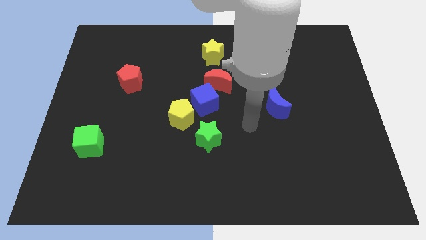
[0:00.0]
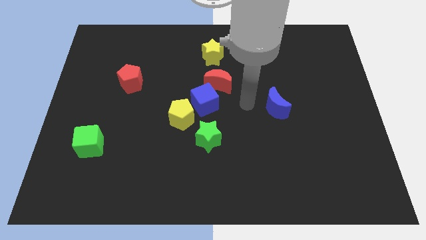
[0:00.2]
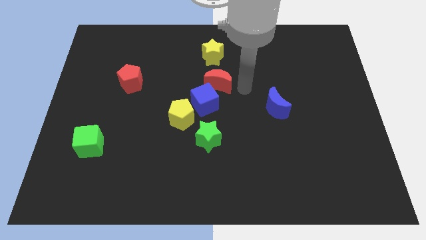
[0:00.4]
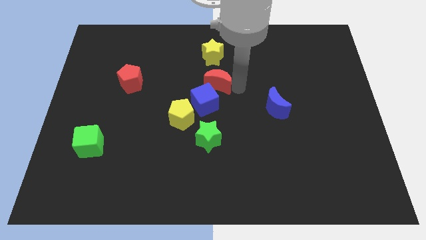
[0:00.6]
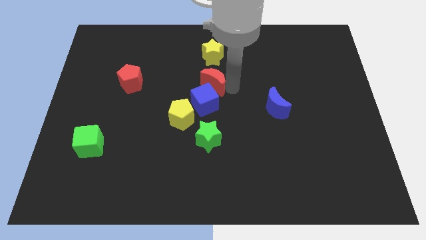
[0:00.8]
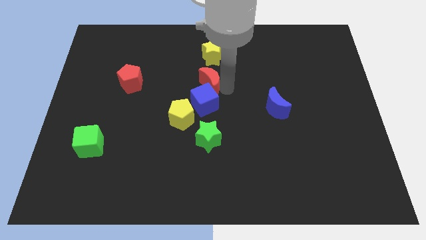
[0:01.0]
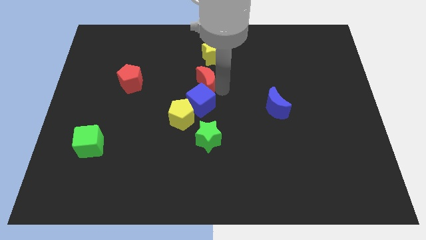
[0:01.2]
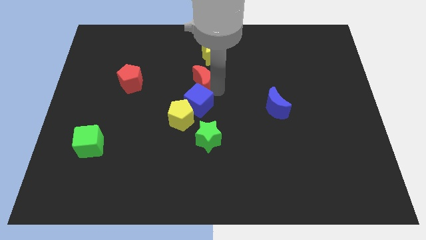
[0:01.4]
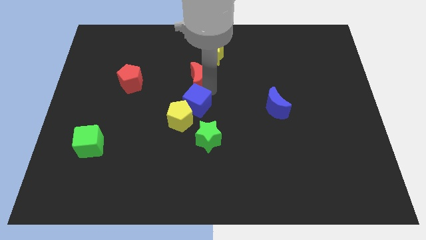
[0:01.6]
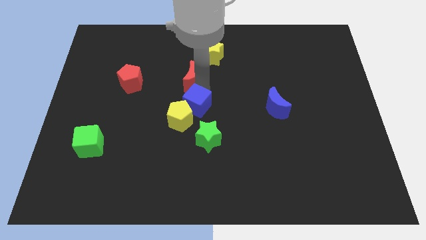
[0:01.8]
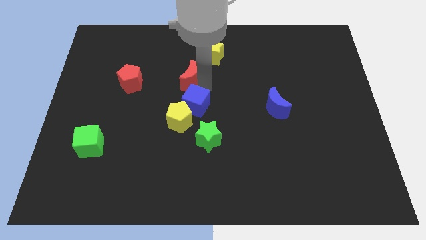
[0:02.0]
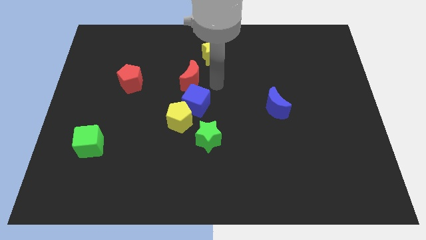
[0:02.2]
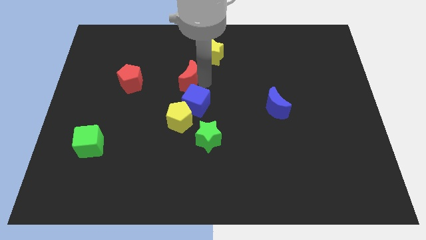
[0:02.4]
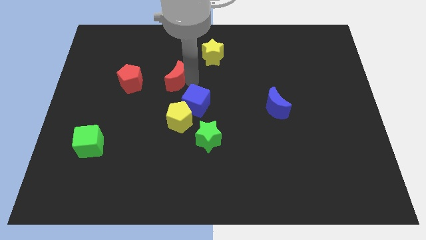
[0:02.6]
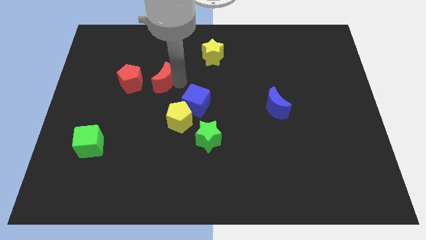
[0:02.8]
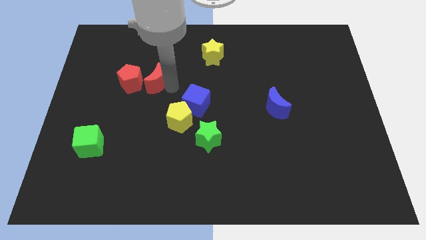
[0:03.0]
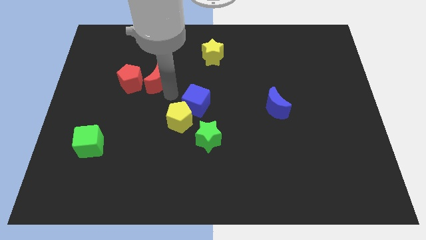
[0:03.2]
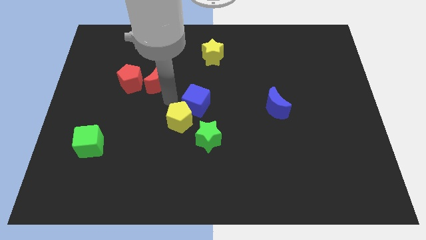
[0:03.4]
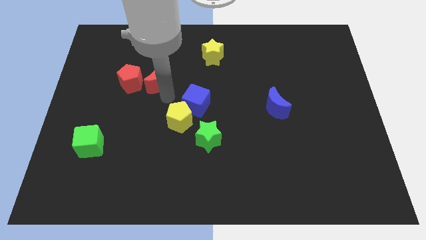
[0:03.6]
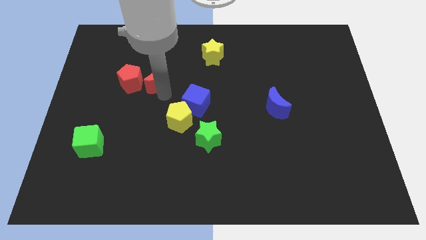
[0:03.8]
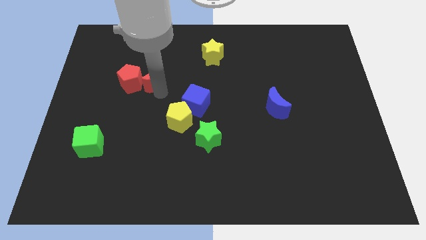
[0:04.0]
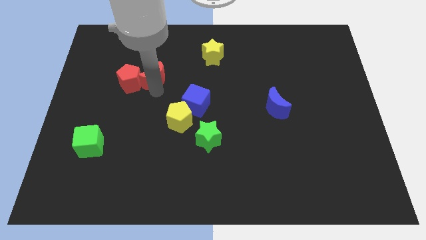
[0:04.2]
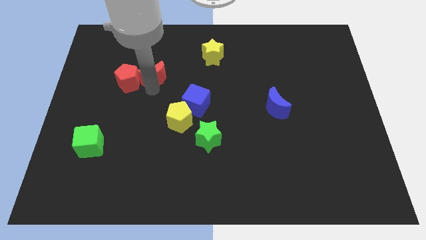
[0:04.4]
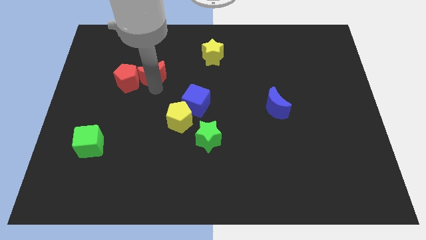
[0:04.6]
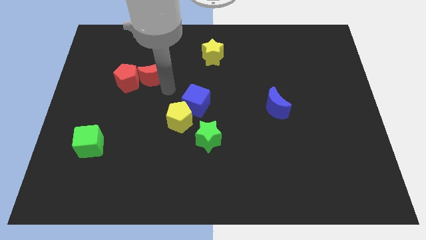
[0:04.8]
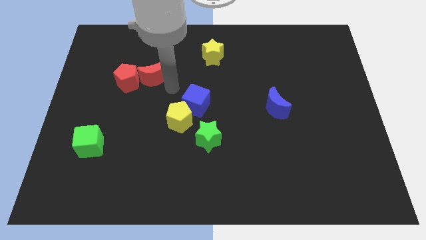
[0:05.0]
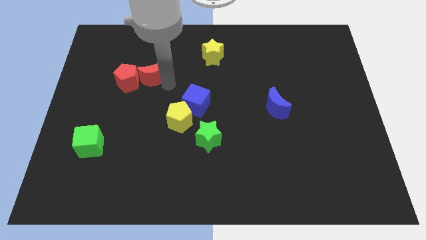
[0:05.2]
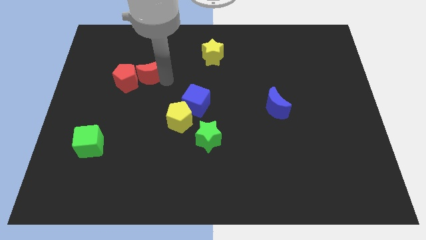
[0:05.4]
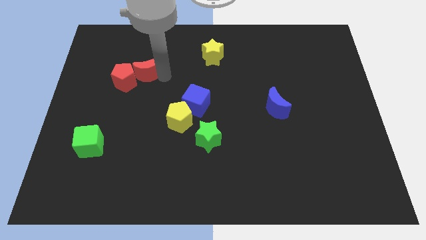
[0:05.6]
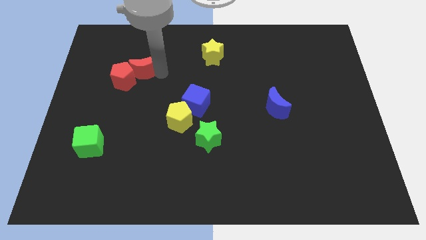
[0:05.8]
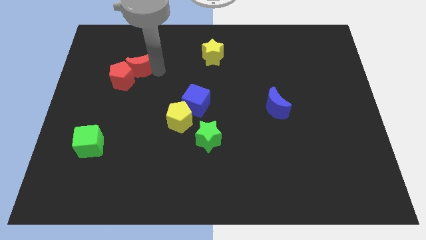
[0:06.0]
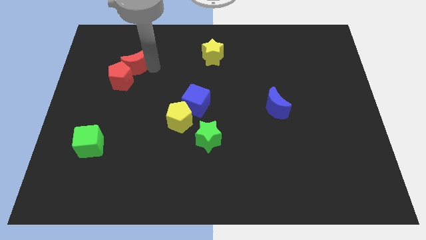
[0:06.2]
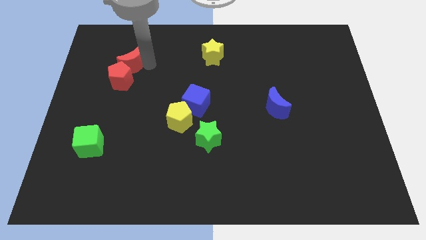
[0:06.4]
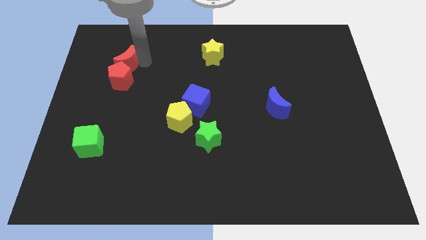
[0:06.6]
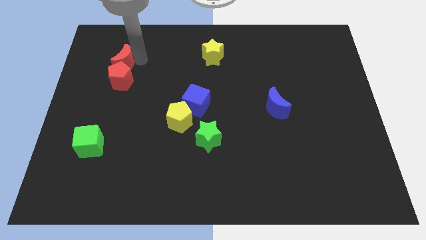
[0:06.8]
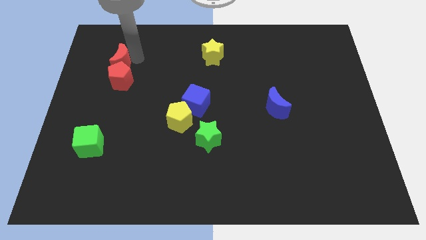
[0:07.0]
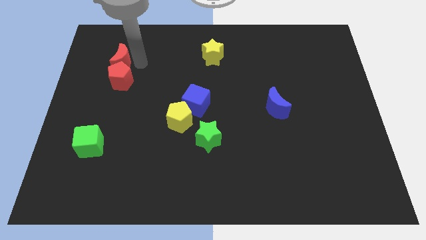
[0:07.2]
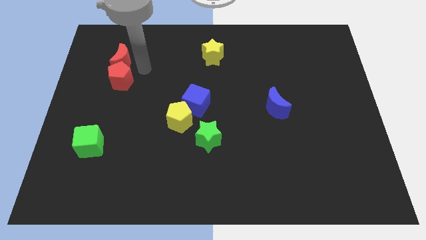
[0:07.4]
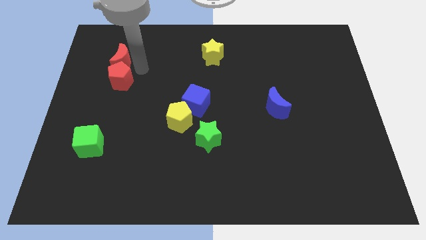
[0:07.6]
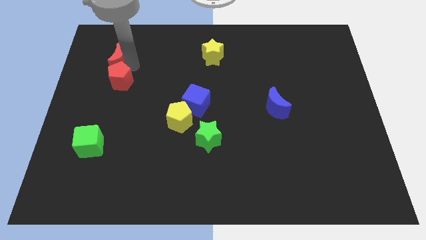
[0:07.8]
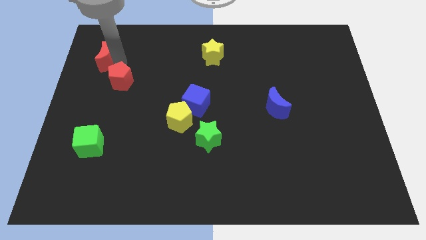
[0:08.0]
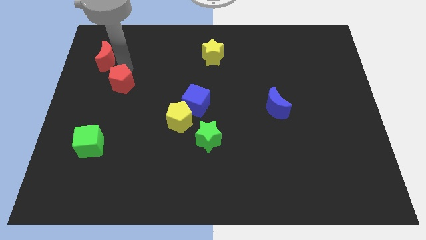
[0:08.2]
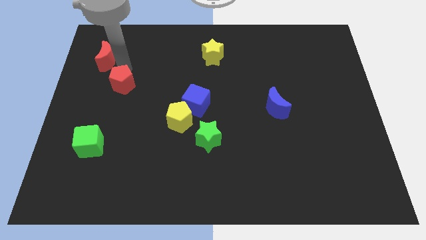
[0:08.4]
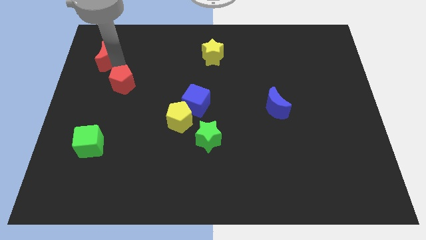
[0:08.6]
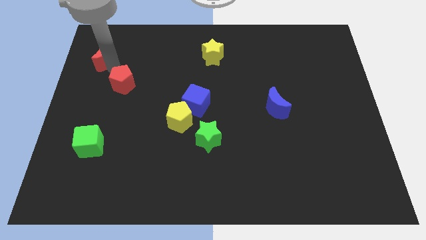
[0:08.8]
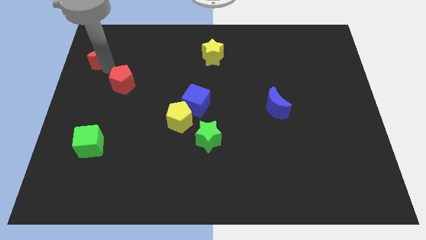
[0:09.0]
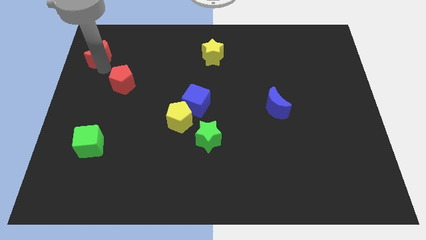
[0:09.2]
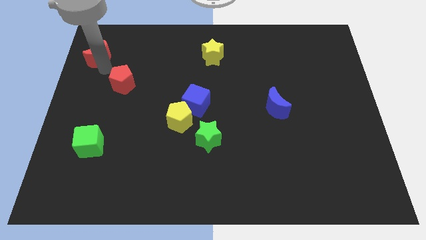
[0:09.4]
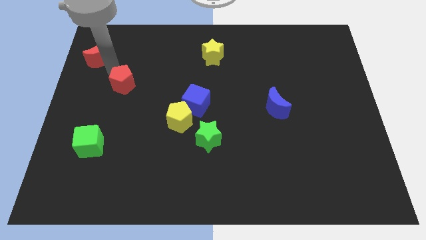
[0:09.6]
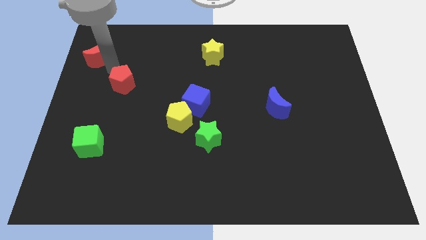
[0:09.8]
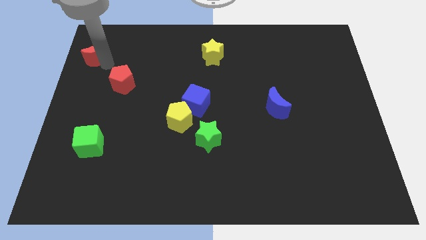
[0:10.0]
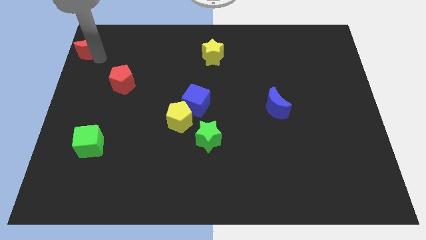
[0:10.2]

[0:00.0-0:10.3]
move the red moon to the top left corner
